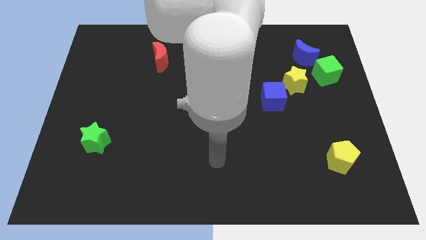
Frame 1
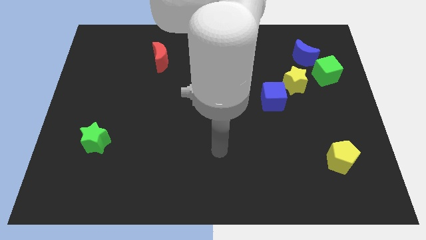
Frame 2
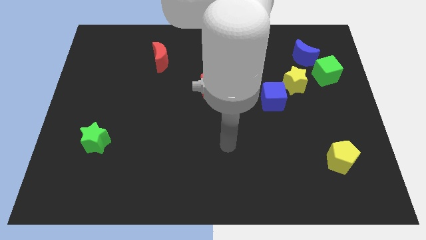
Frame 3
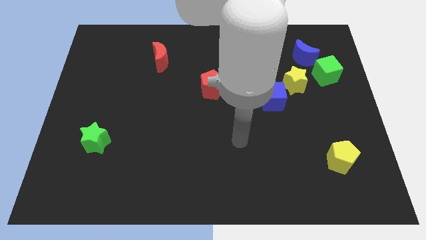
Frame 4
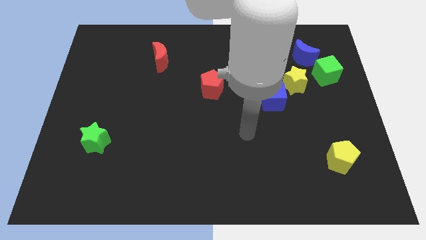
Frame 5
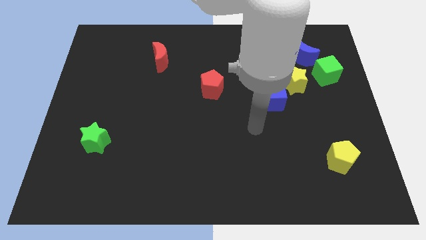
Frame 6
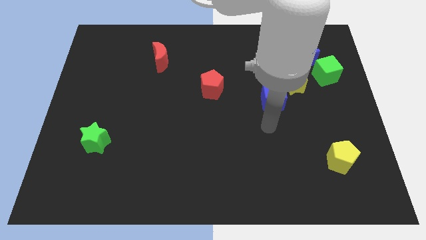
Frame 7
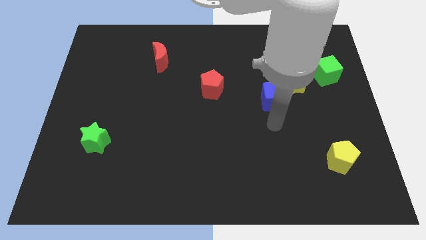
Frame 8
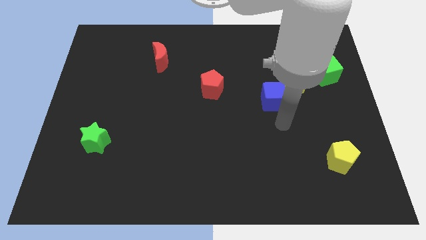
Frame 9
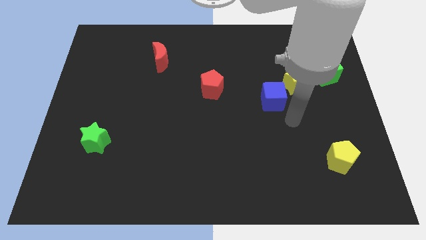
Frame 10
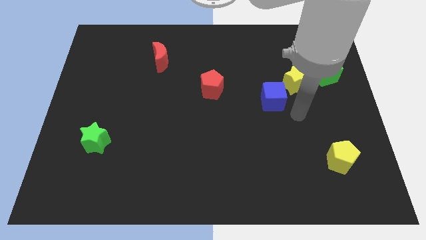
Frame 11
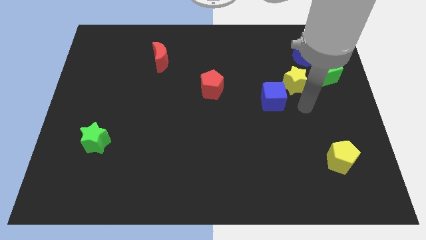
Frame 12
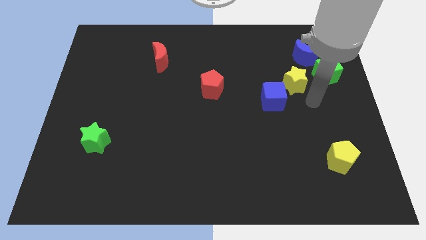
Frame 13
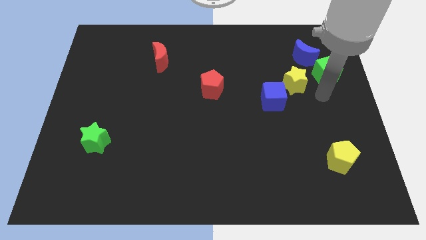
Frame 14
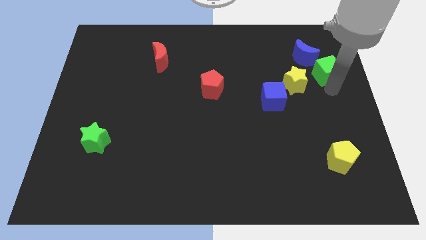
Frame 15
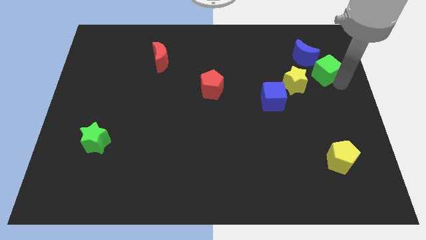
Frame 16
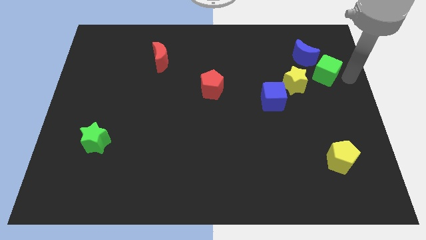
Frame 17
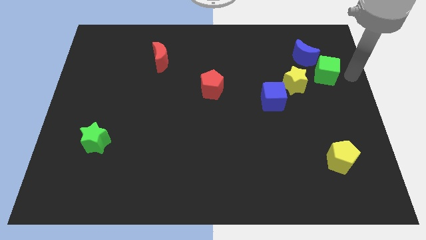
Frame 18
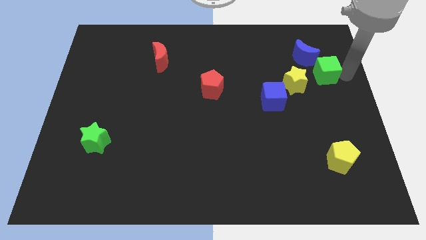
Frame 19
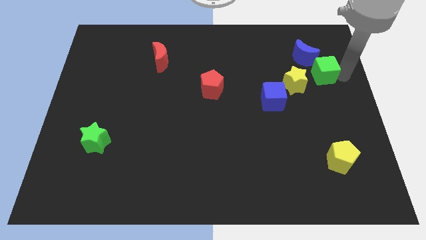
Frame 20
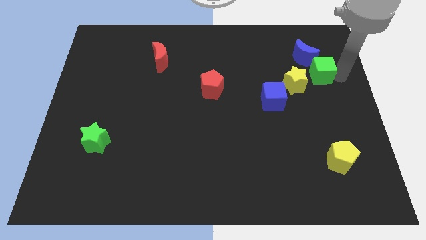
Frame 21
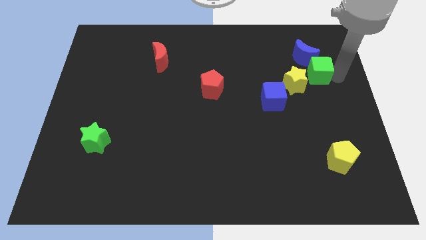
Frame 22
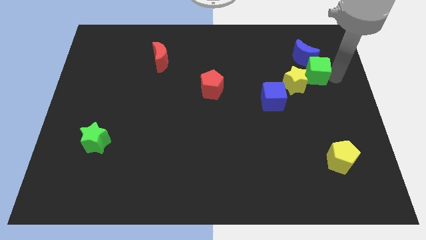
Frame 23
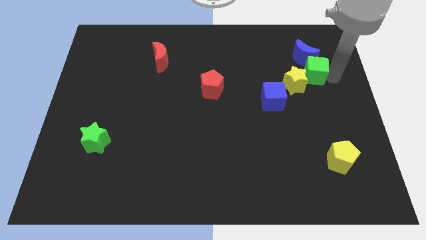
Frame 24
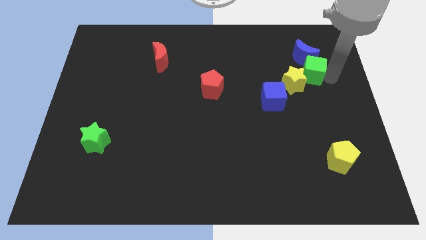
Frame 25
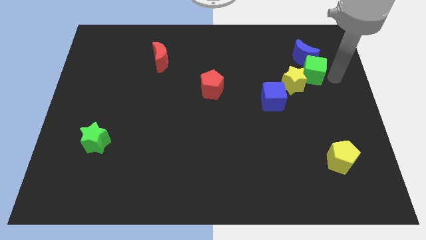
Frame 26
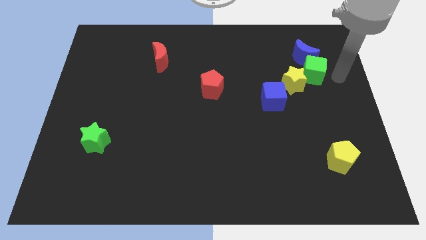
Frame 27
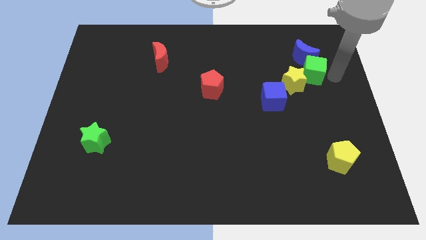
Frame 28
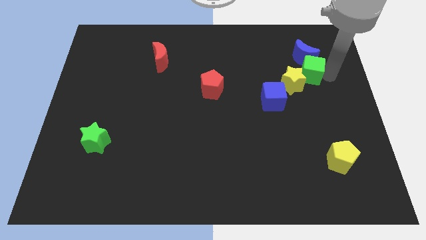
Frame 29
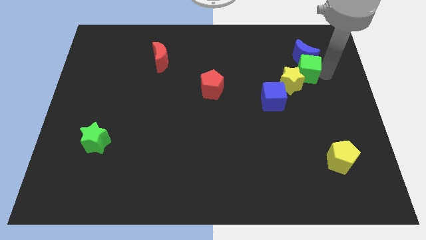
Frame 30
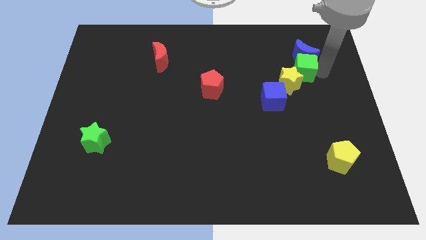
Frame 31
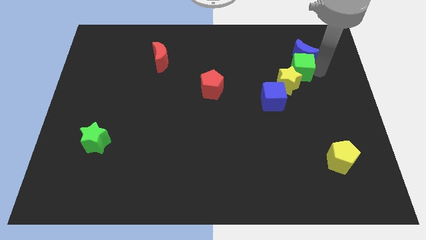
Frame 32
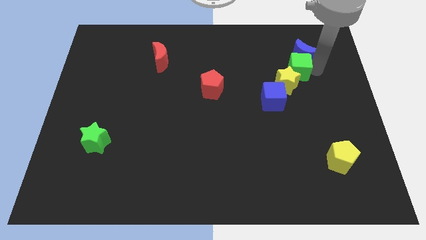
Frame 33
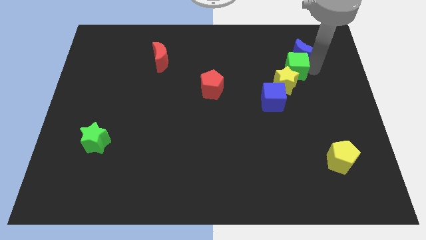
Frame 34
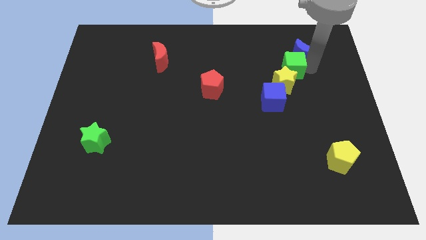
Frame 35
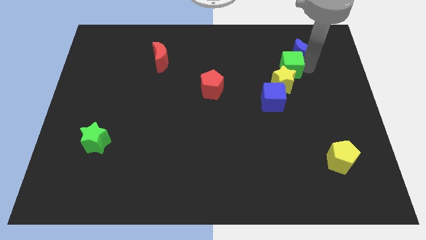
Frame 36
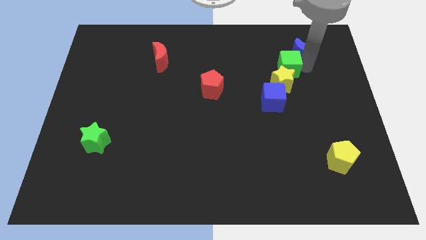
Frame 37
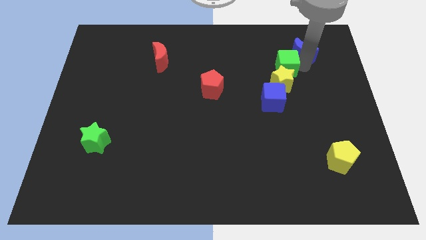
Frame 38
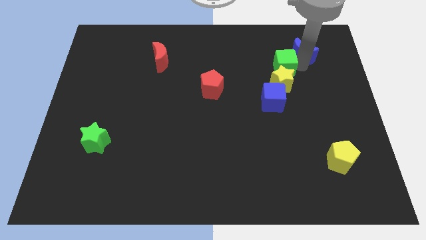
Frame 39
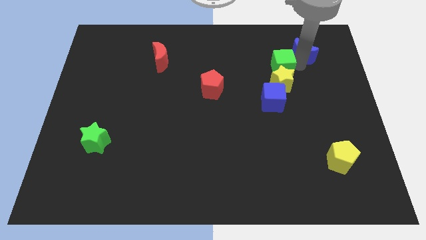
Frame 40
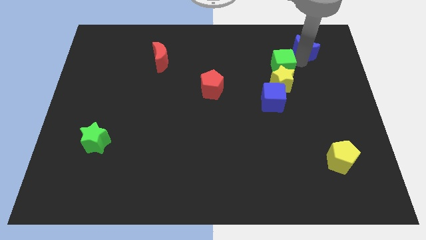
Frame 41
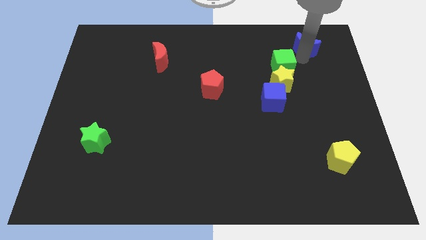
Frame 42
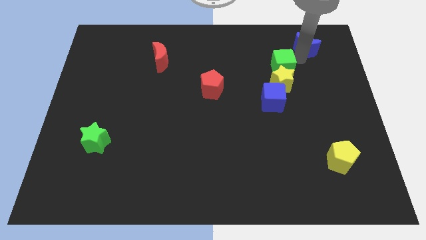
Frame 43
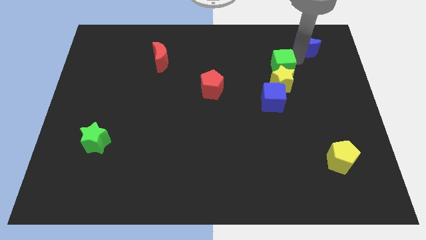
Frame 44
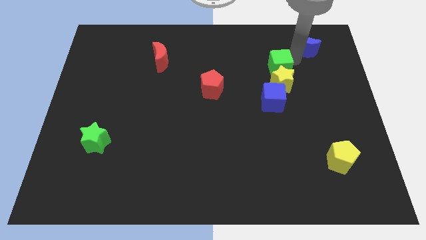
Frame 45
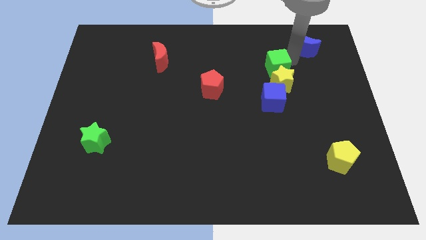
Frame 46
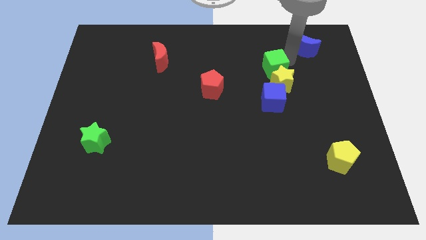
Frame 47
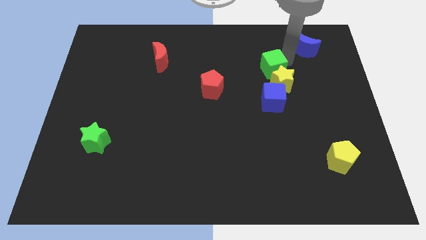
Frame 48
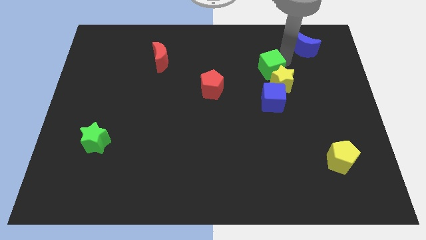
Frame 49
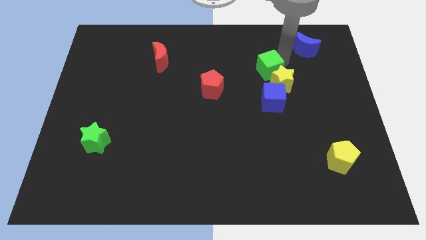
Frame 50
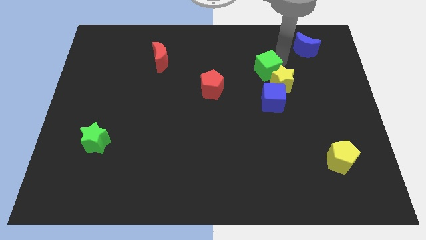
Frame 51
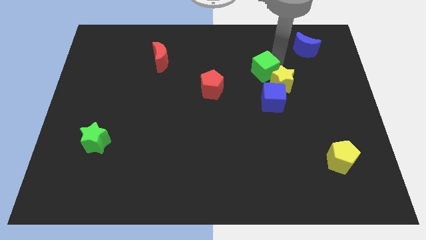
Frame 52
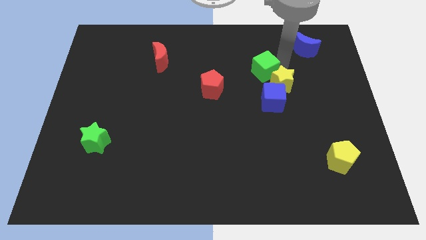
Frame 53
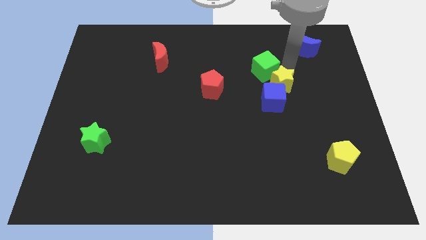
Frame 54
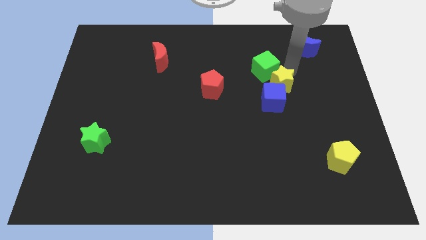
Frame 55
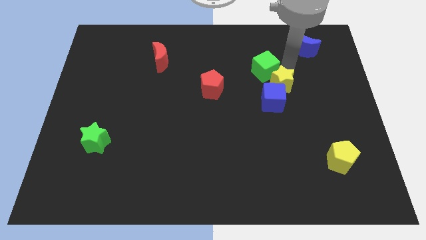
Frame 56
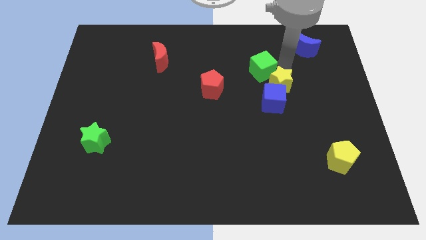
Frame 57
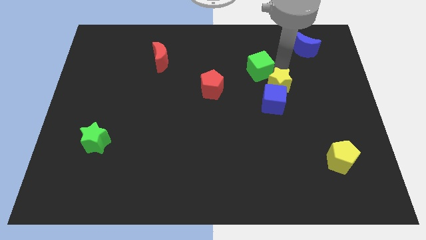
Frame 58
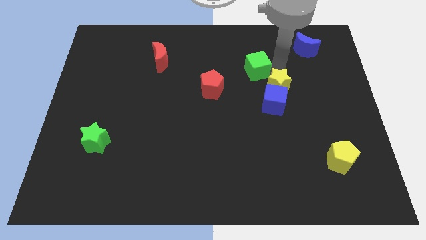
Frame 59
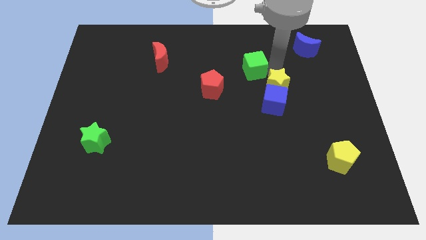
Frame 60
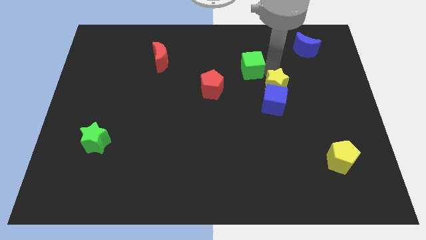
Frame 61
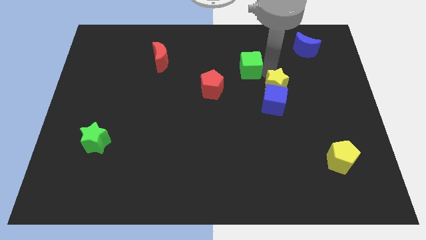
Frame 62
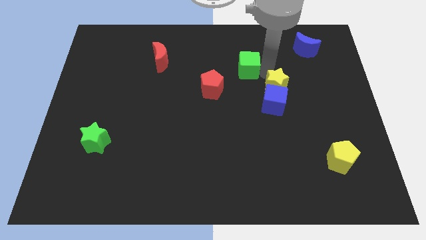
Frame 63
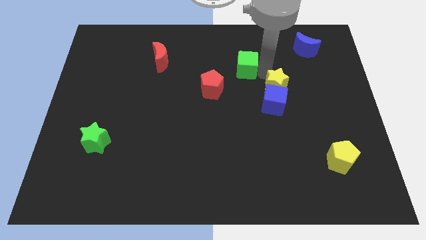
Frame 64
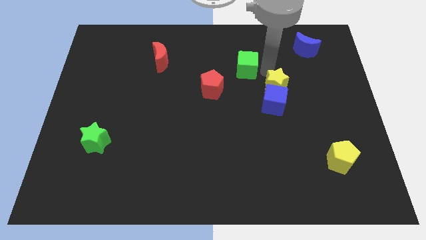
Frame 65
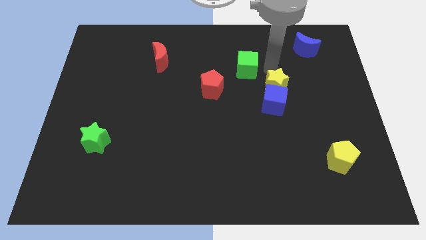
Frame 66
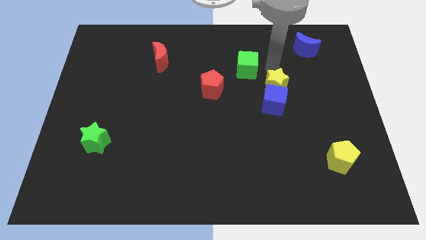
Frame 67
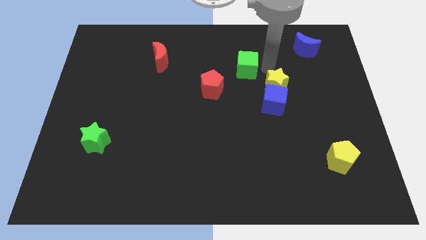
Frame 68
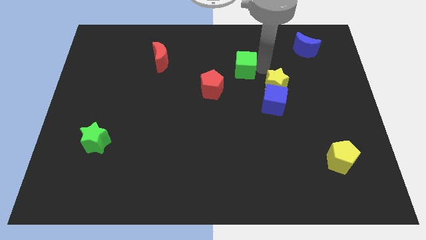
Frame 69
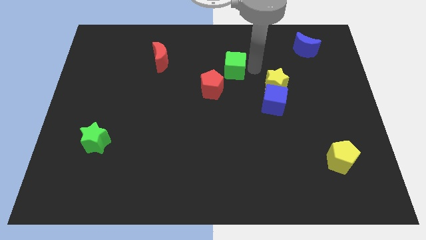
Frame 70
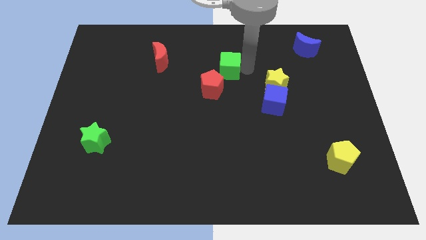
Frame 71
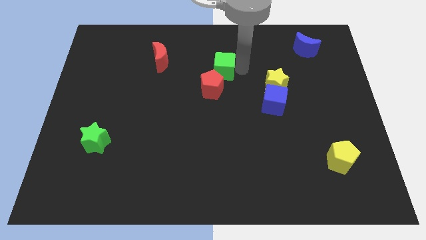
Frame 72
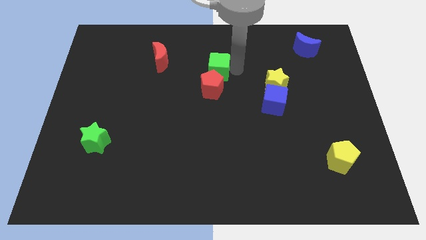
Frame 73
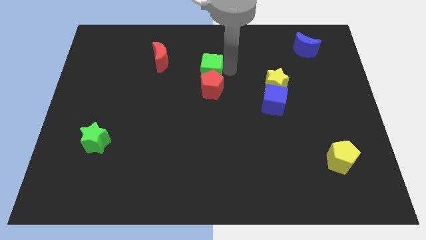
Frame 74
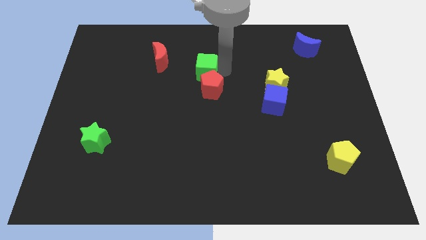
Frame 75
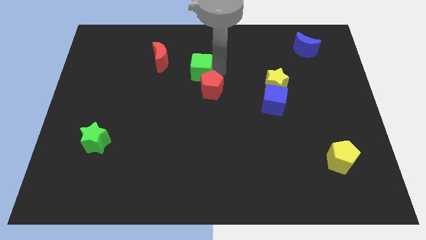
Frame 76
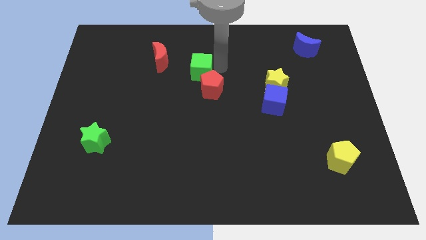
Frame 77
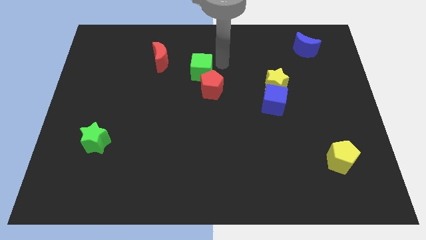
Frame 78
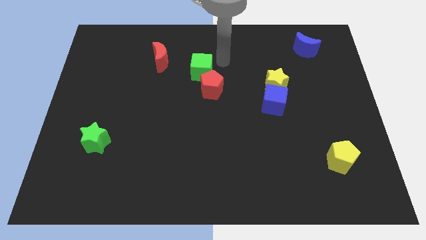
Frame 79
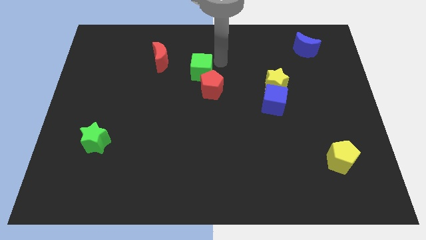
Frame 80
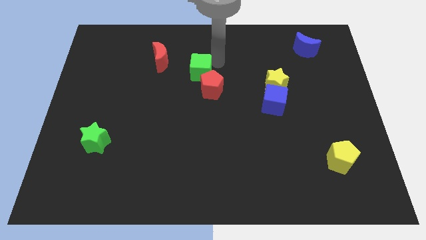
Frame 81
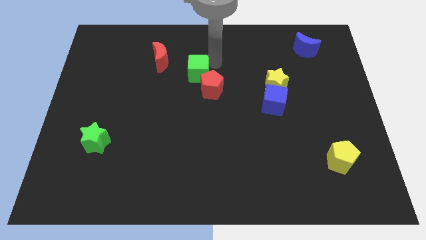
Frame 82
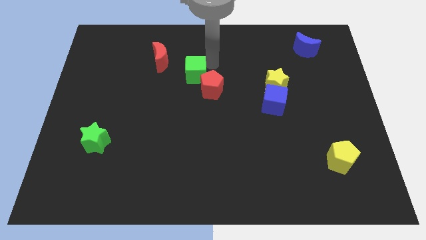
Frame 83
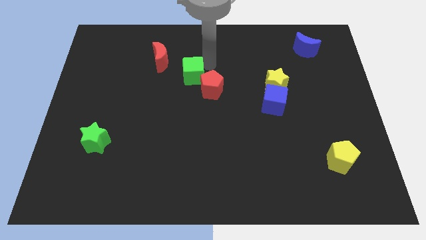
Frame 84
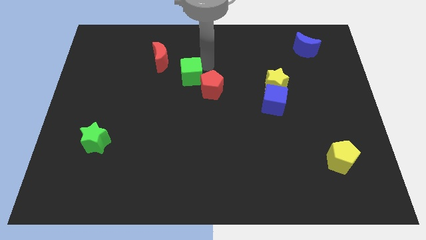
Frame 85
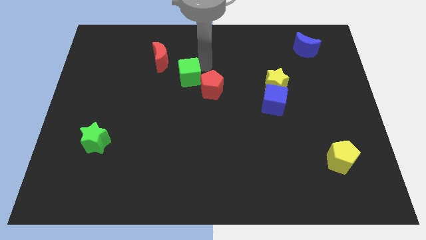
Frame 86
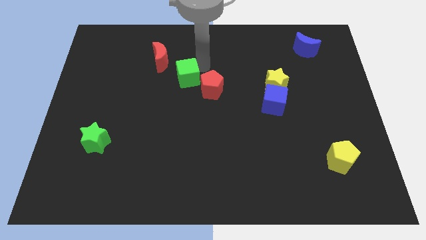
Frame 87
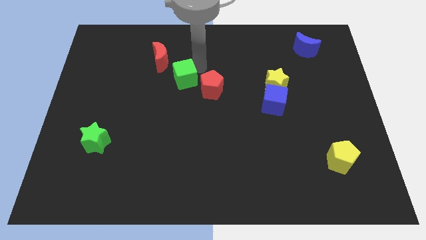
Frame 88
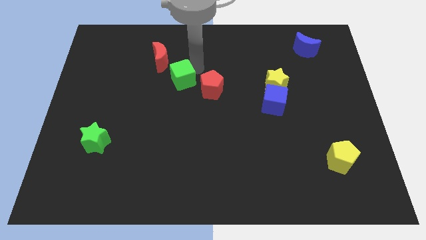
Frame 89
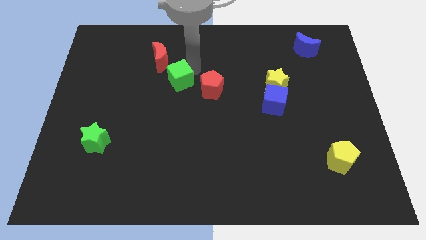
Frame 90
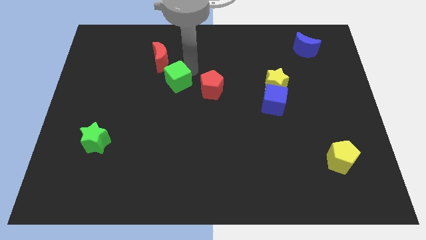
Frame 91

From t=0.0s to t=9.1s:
slide the green cube below the red moon
